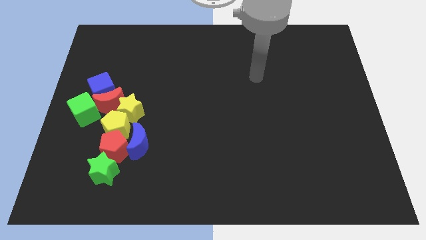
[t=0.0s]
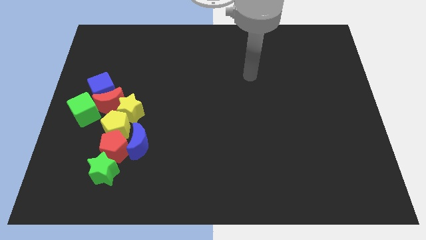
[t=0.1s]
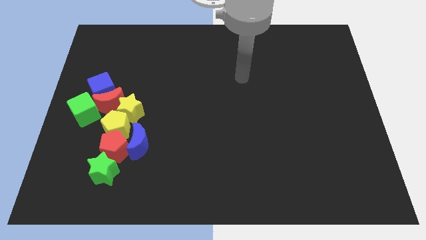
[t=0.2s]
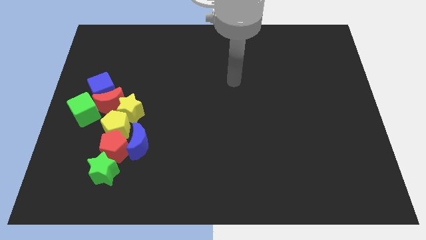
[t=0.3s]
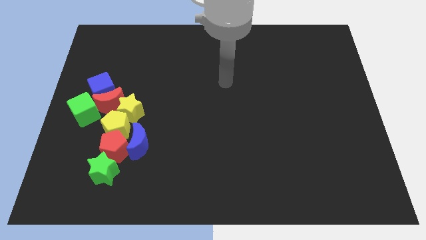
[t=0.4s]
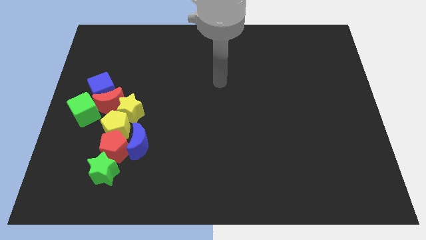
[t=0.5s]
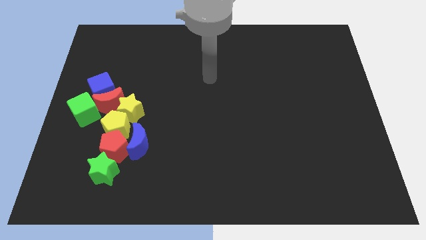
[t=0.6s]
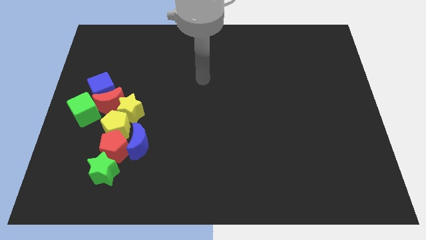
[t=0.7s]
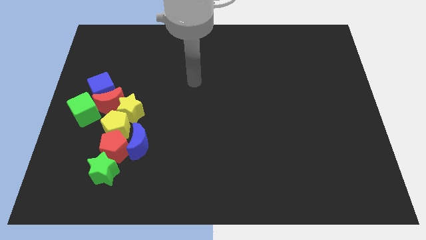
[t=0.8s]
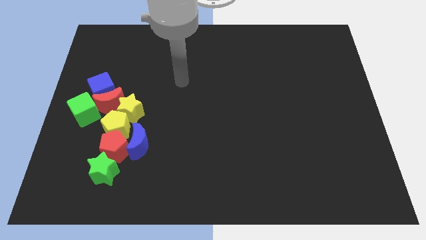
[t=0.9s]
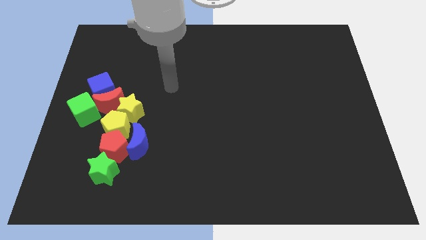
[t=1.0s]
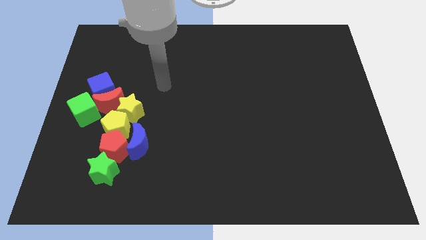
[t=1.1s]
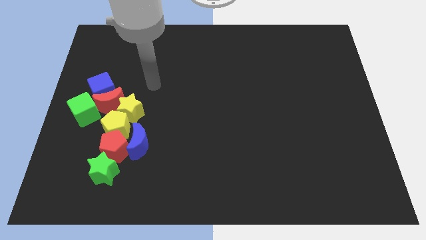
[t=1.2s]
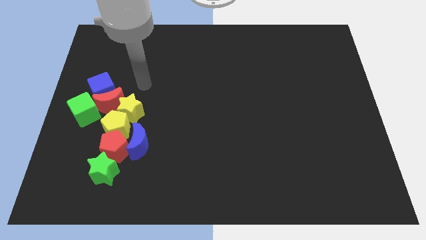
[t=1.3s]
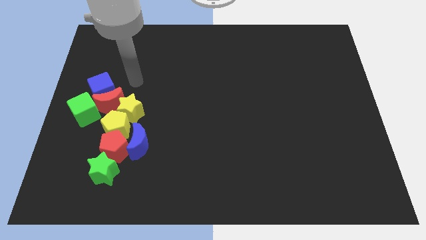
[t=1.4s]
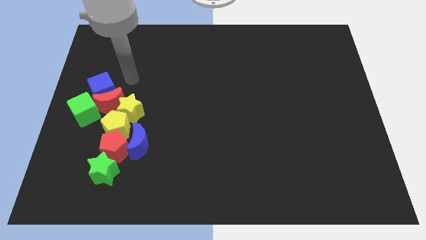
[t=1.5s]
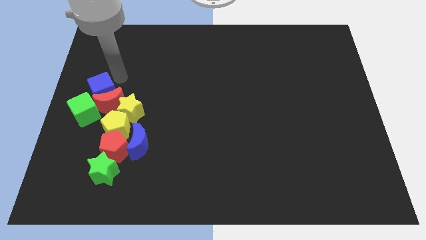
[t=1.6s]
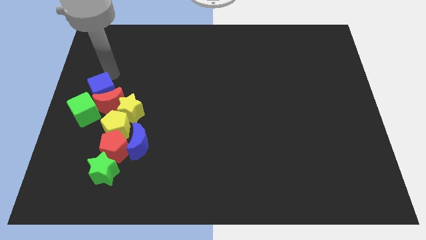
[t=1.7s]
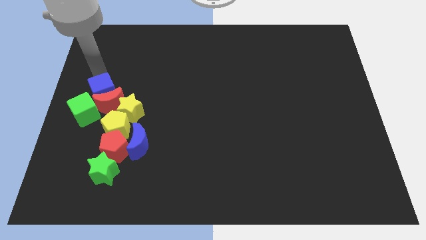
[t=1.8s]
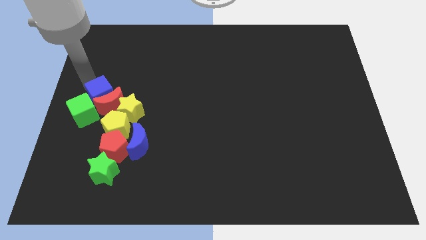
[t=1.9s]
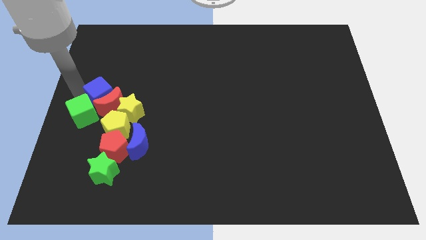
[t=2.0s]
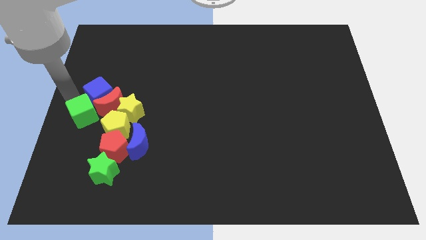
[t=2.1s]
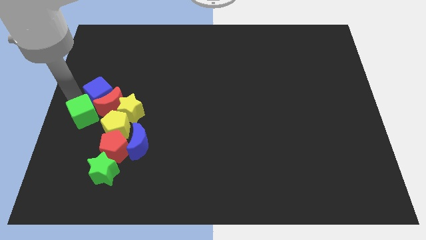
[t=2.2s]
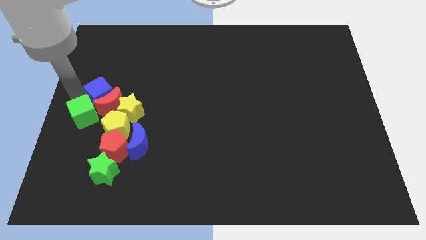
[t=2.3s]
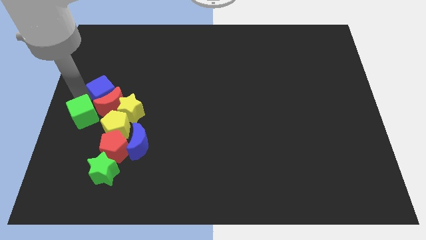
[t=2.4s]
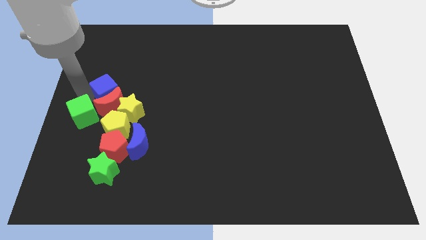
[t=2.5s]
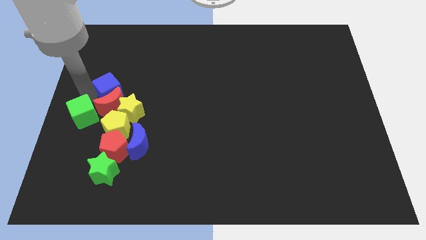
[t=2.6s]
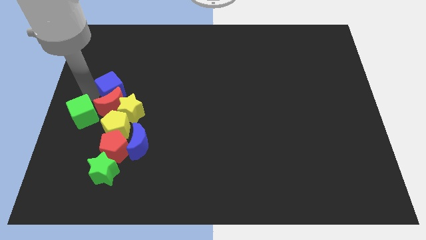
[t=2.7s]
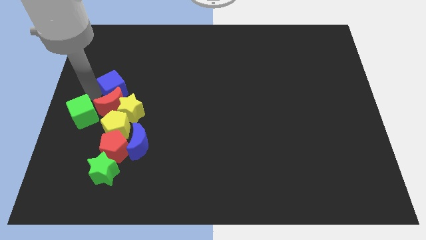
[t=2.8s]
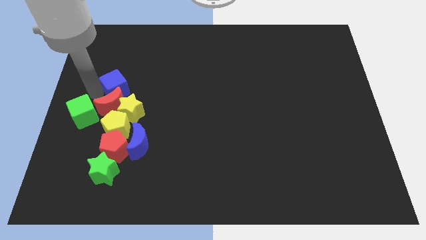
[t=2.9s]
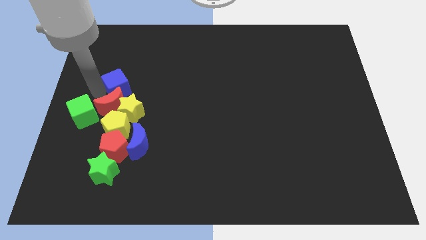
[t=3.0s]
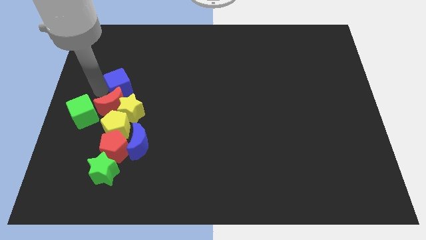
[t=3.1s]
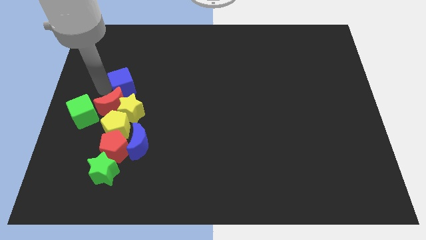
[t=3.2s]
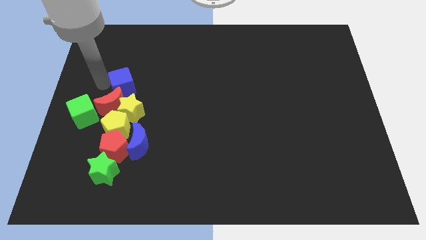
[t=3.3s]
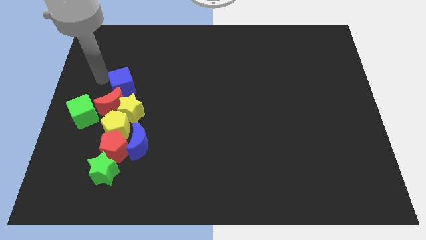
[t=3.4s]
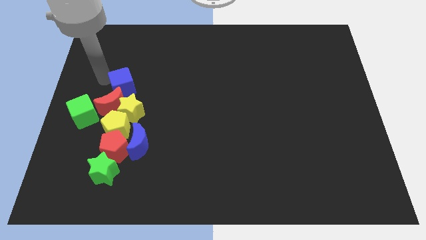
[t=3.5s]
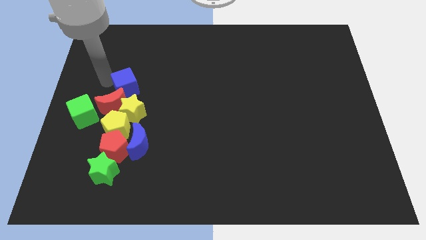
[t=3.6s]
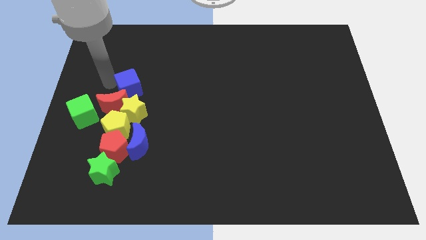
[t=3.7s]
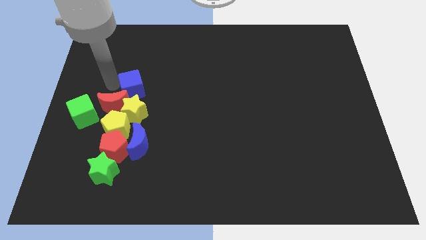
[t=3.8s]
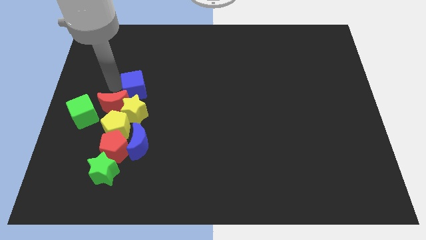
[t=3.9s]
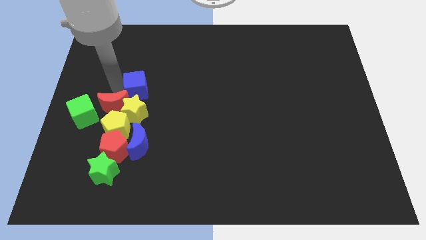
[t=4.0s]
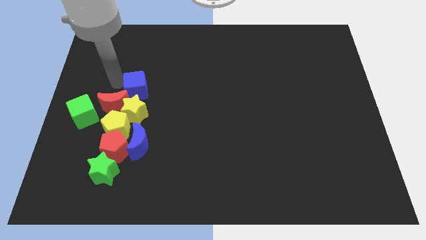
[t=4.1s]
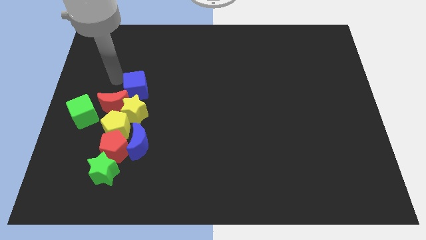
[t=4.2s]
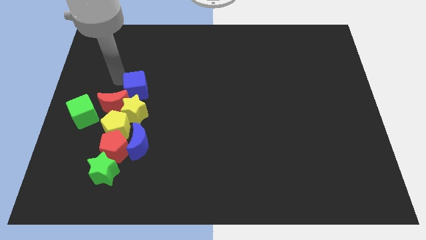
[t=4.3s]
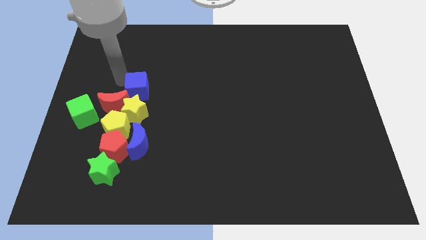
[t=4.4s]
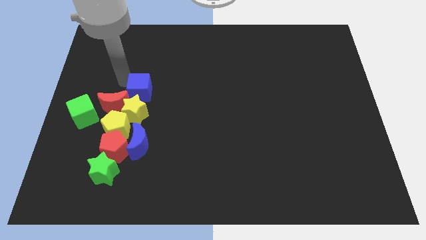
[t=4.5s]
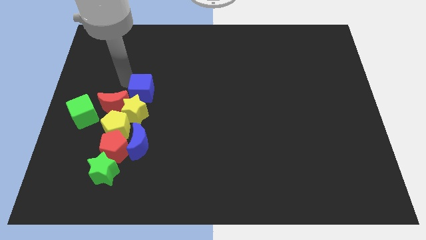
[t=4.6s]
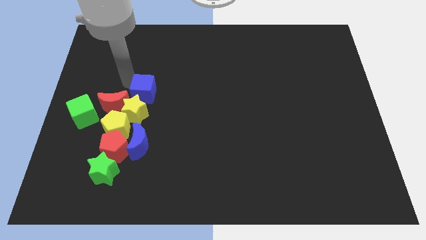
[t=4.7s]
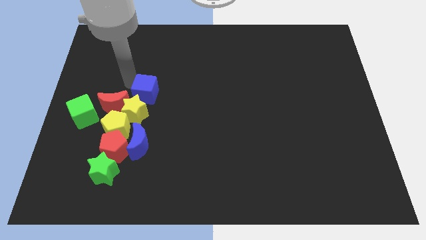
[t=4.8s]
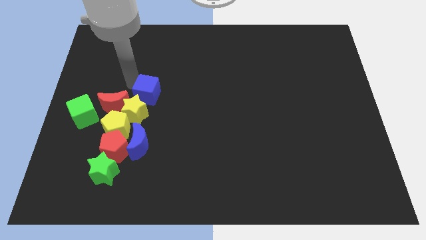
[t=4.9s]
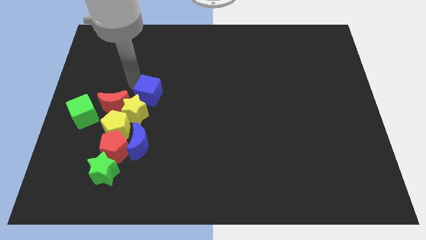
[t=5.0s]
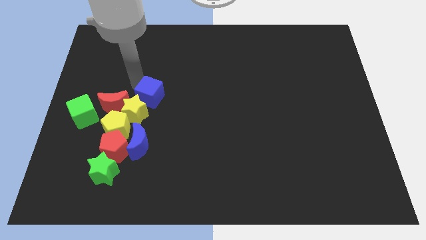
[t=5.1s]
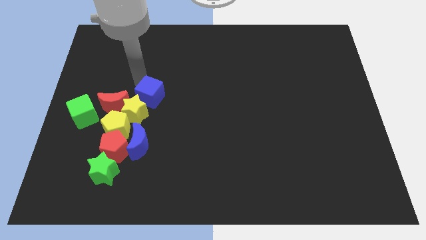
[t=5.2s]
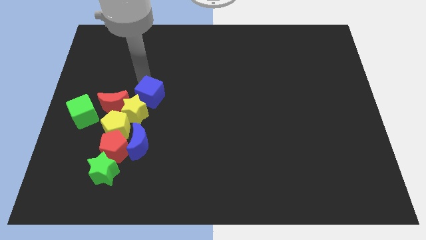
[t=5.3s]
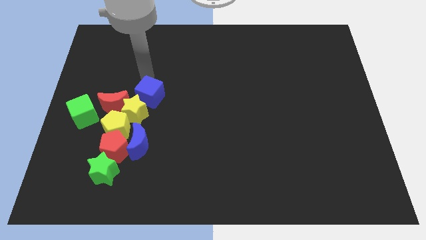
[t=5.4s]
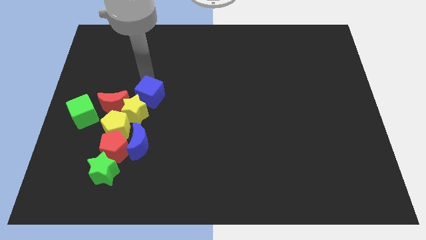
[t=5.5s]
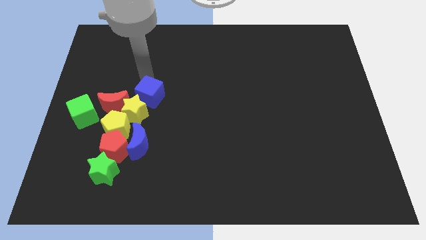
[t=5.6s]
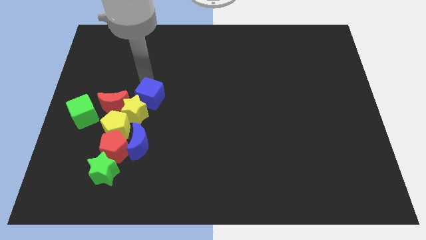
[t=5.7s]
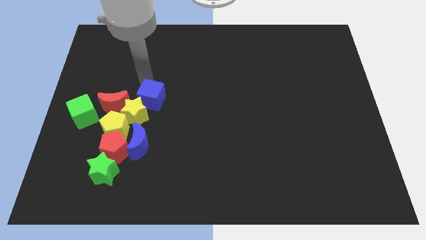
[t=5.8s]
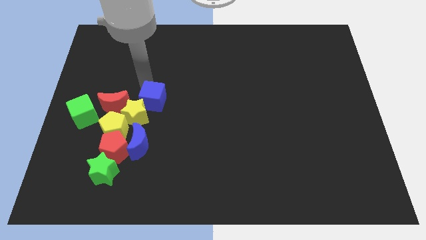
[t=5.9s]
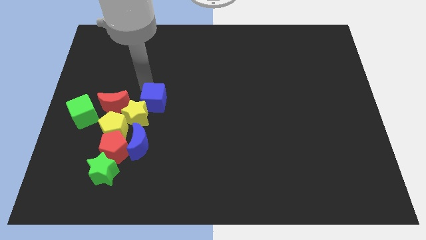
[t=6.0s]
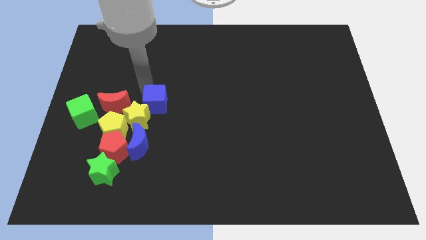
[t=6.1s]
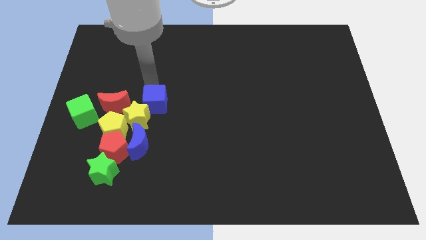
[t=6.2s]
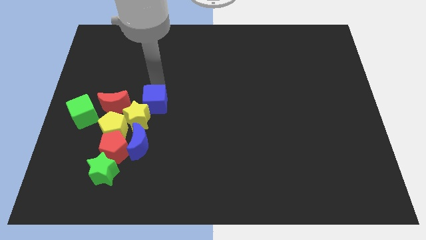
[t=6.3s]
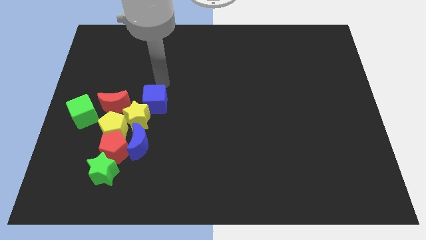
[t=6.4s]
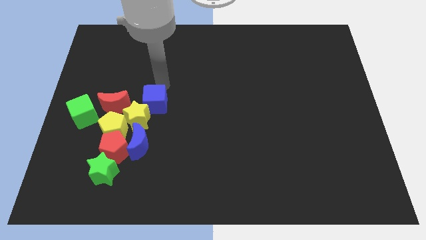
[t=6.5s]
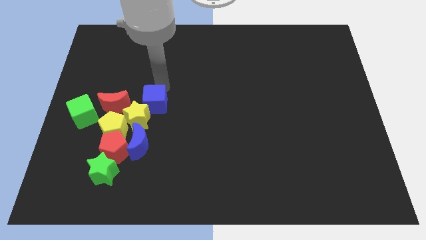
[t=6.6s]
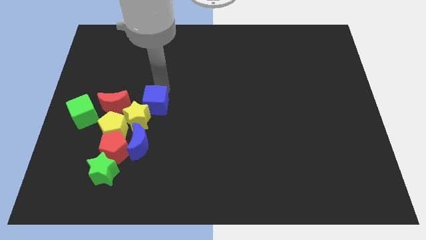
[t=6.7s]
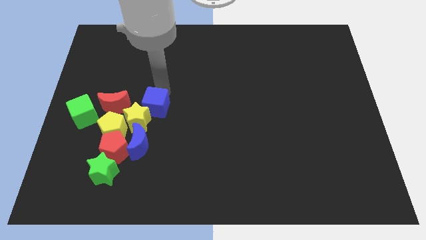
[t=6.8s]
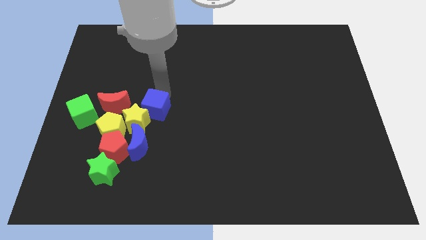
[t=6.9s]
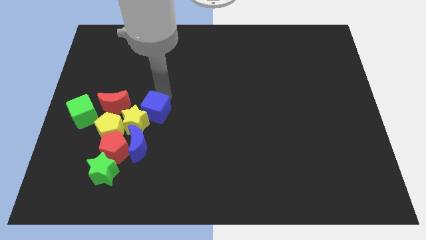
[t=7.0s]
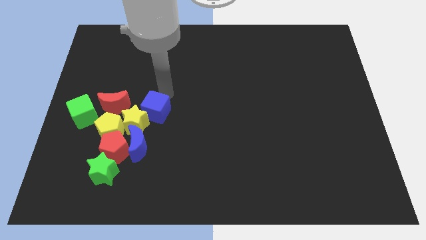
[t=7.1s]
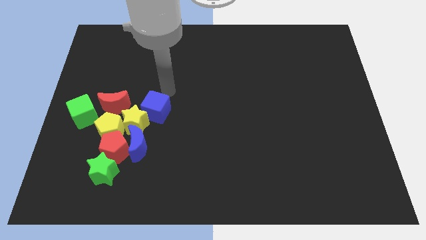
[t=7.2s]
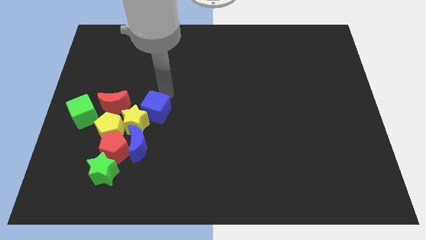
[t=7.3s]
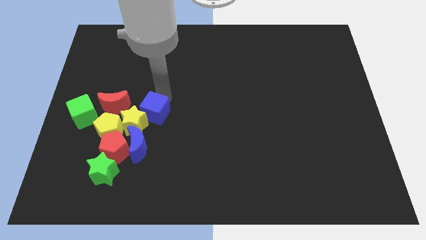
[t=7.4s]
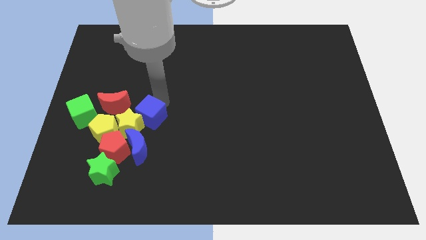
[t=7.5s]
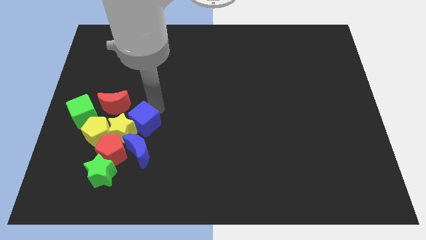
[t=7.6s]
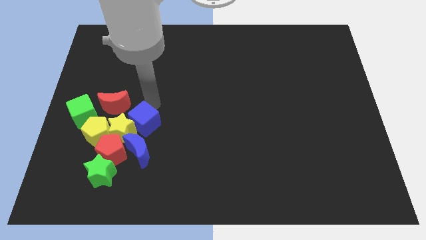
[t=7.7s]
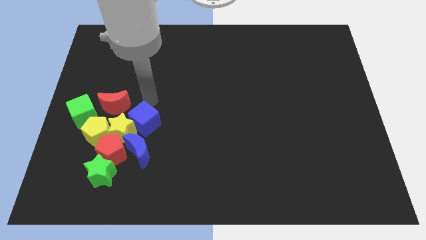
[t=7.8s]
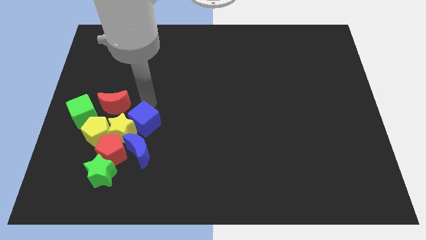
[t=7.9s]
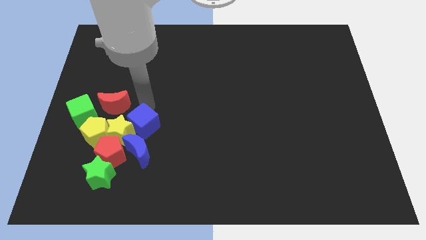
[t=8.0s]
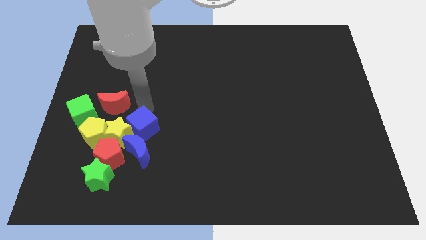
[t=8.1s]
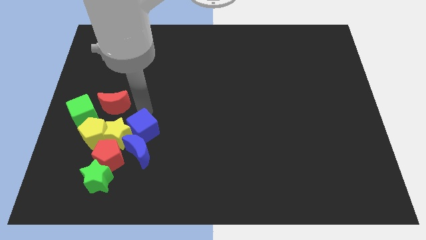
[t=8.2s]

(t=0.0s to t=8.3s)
push the blue cube close to the blue moon
